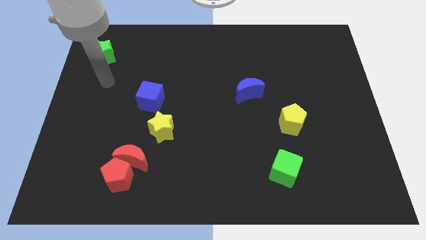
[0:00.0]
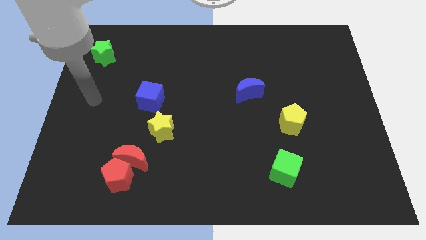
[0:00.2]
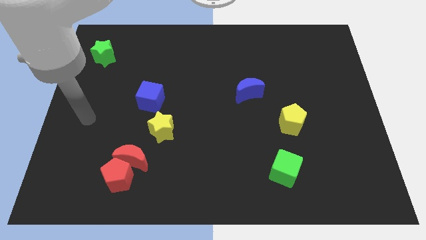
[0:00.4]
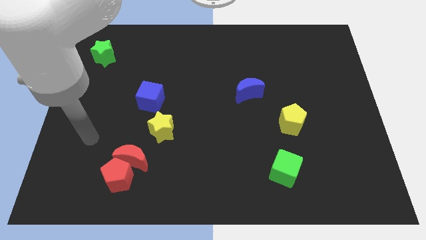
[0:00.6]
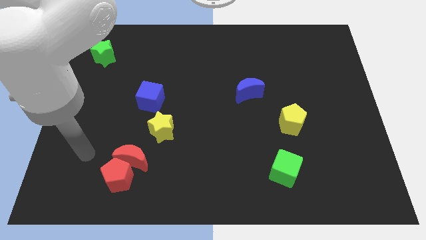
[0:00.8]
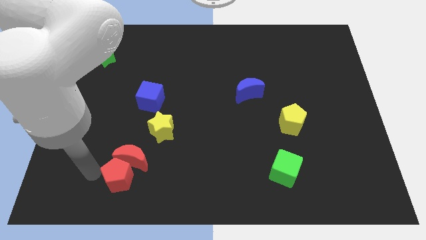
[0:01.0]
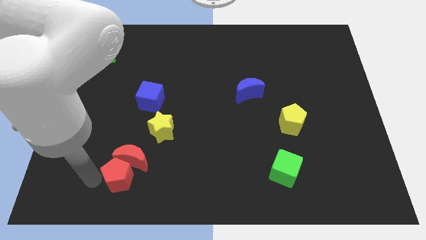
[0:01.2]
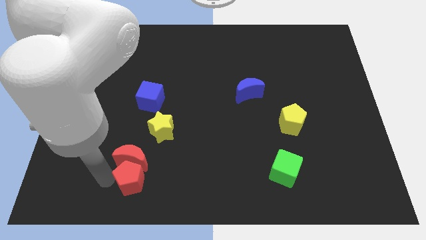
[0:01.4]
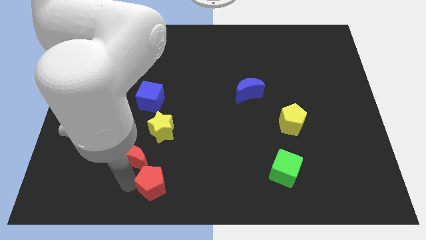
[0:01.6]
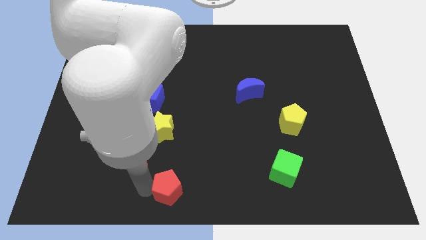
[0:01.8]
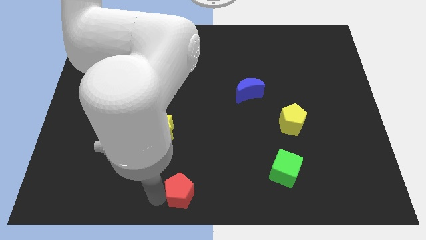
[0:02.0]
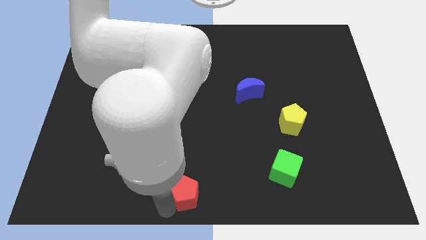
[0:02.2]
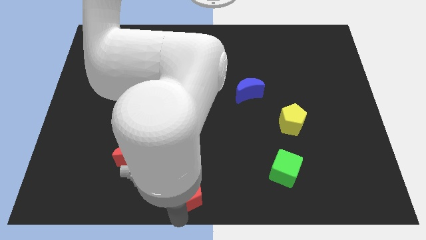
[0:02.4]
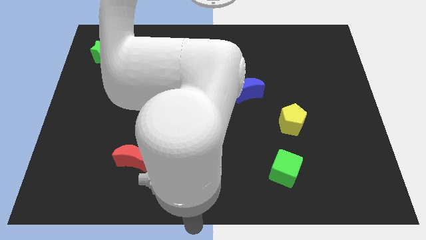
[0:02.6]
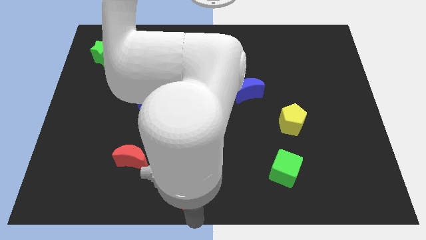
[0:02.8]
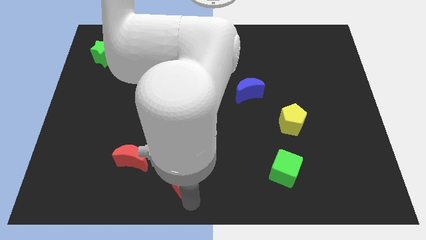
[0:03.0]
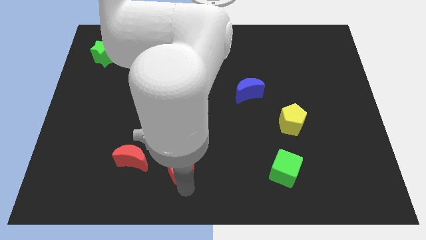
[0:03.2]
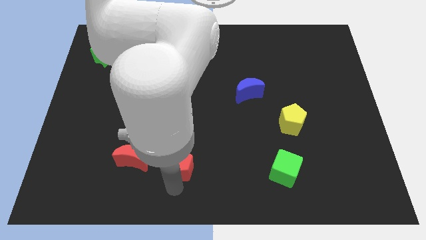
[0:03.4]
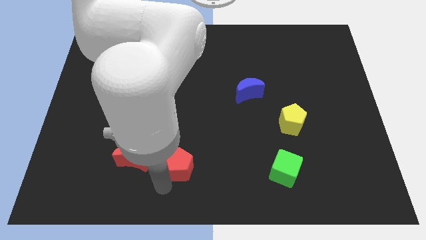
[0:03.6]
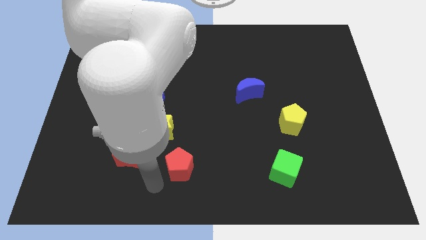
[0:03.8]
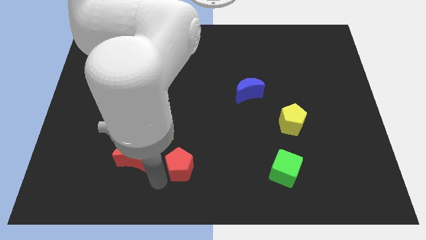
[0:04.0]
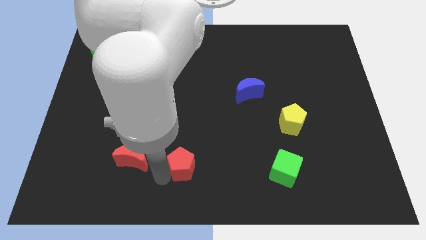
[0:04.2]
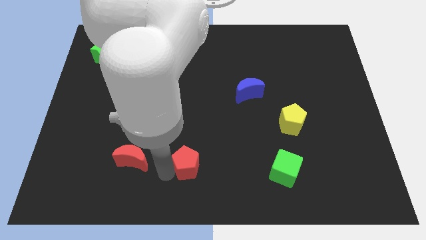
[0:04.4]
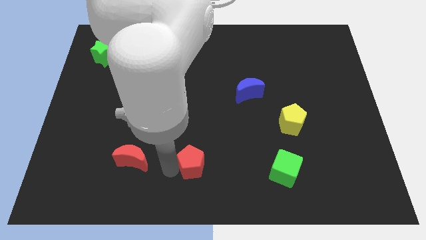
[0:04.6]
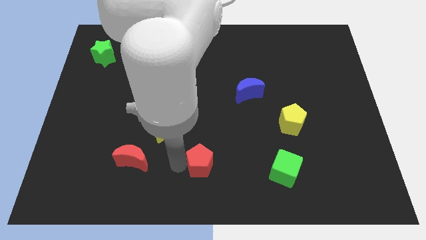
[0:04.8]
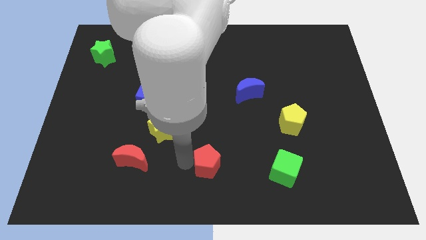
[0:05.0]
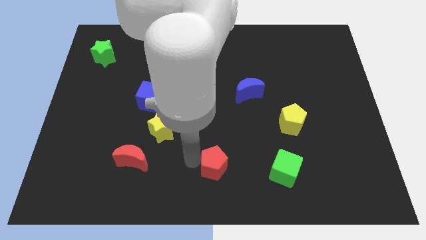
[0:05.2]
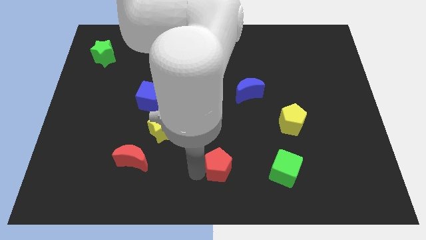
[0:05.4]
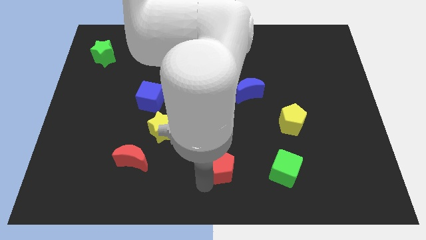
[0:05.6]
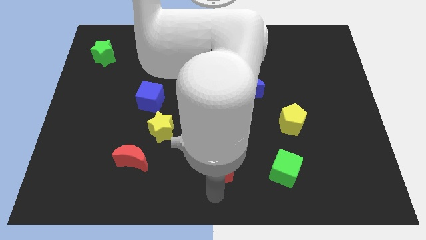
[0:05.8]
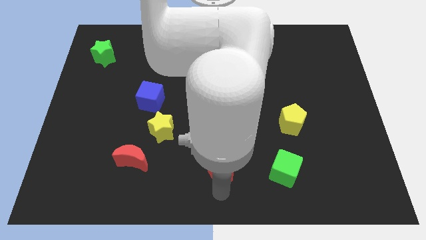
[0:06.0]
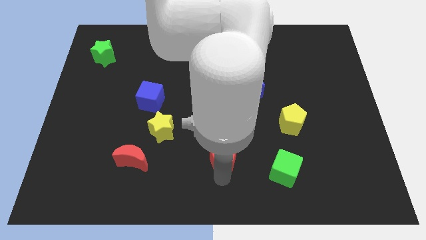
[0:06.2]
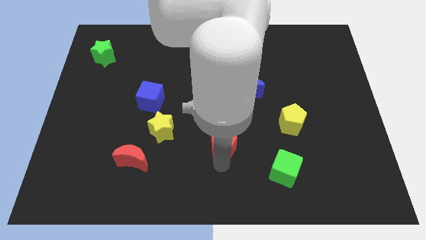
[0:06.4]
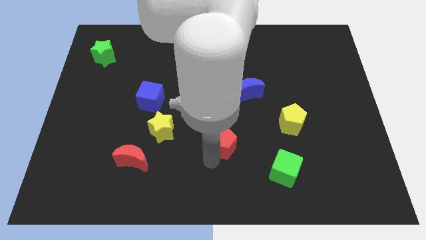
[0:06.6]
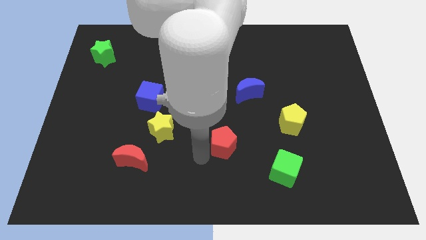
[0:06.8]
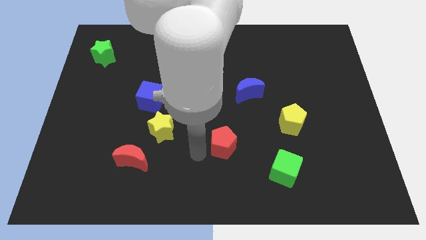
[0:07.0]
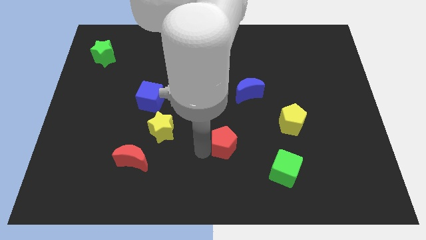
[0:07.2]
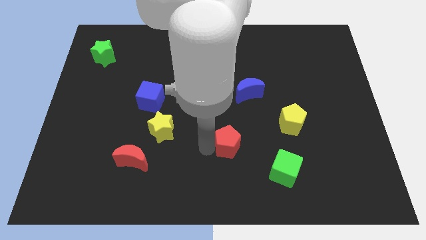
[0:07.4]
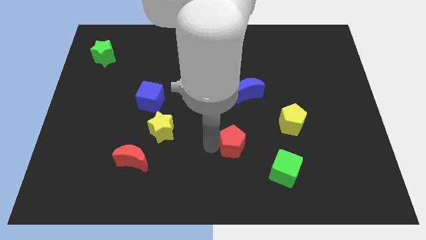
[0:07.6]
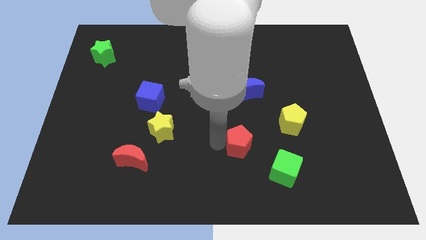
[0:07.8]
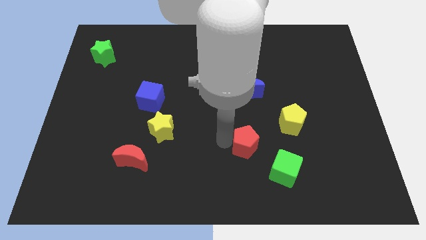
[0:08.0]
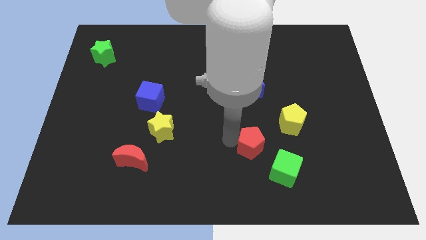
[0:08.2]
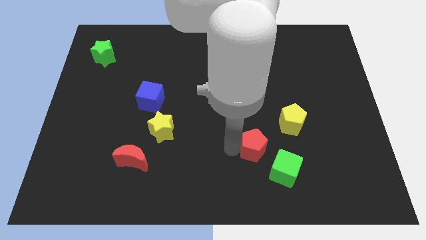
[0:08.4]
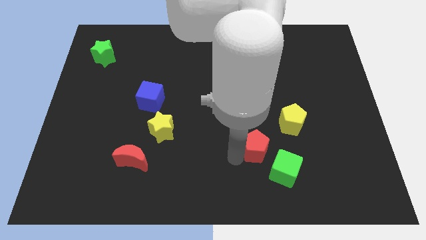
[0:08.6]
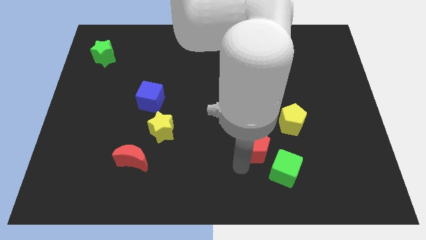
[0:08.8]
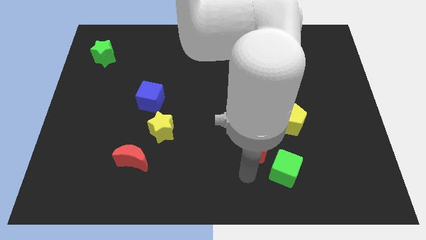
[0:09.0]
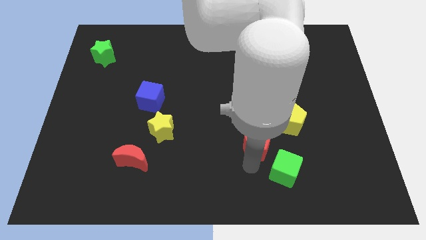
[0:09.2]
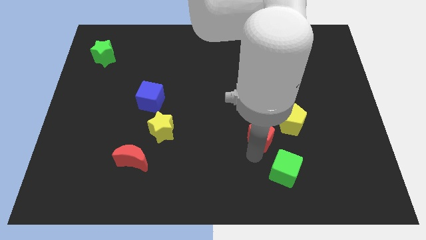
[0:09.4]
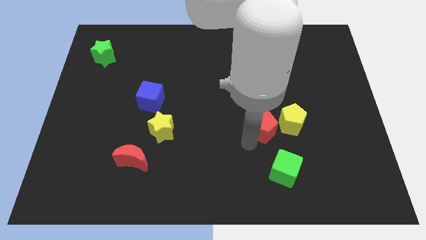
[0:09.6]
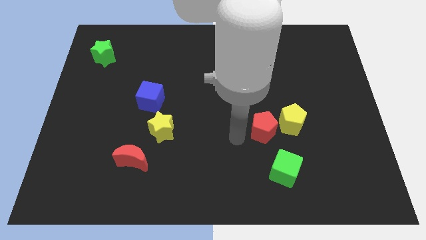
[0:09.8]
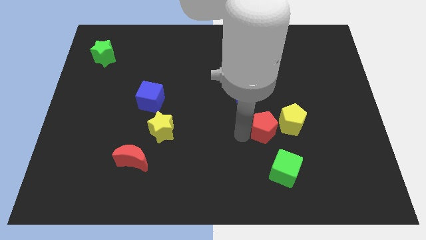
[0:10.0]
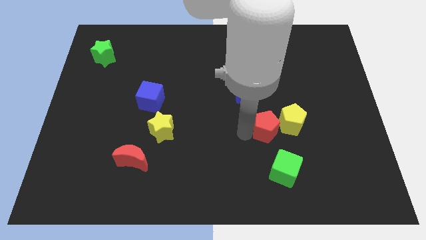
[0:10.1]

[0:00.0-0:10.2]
slide the red pentagon close to the yellow pentagon

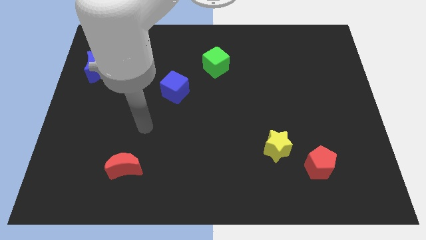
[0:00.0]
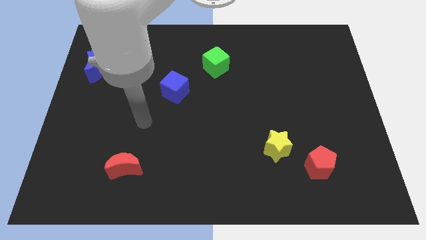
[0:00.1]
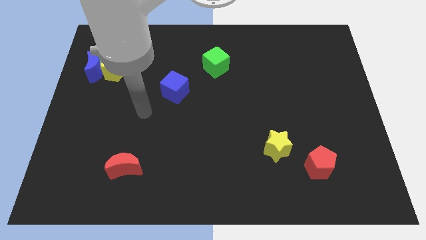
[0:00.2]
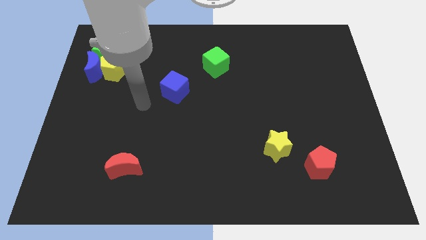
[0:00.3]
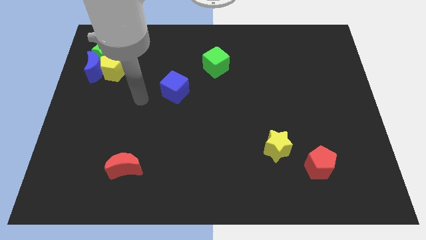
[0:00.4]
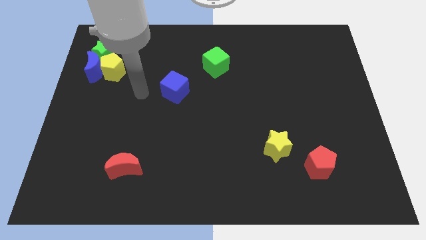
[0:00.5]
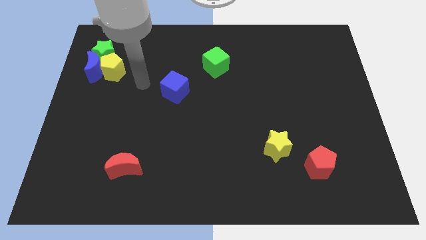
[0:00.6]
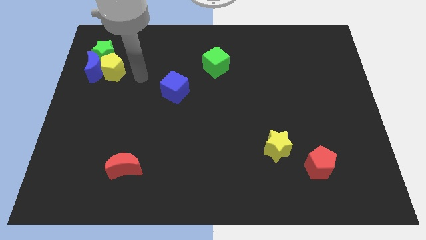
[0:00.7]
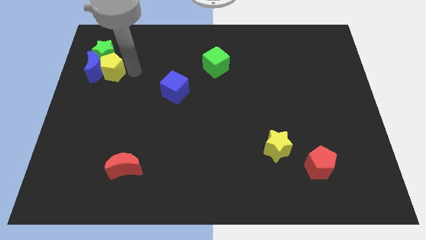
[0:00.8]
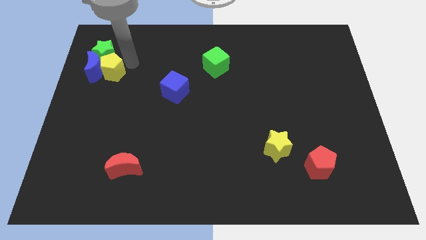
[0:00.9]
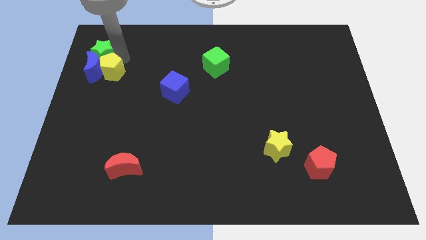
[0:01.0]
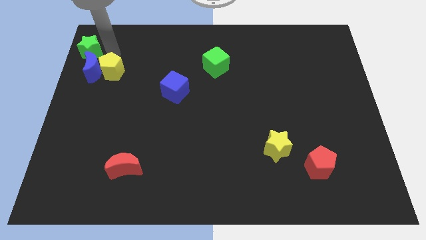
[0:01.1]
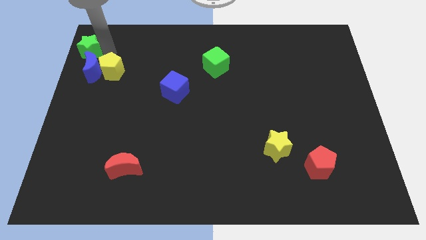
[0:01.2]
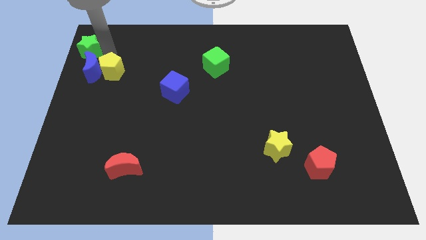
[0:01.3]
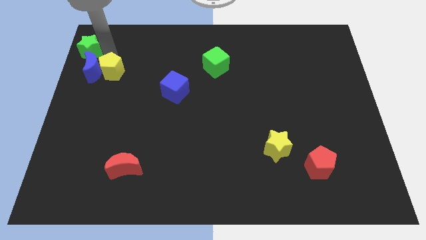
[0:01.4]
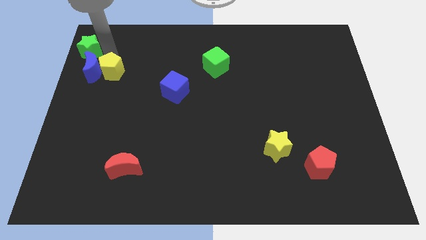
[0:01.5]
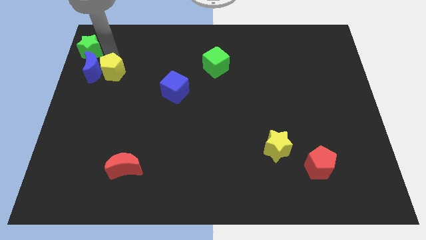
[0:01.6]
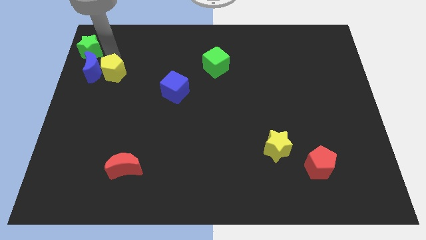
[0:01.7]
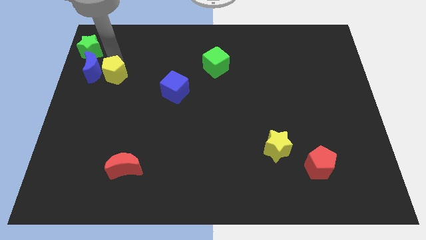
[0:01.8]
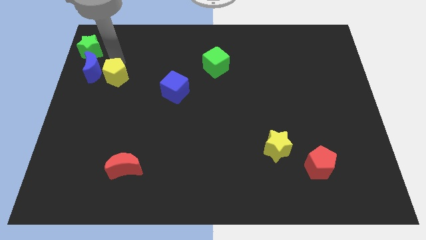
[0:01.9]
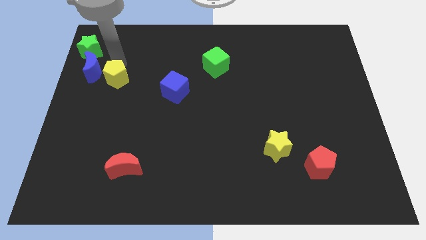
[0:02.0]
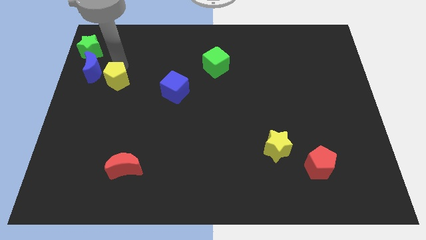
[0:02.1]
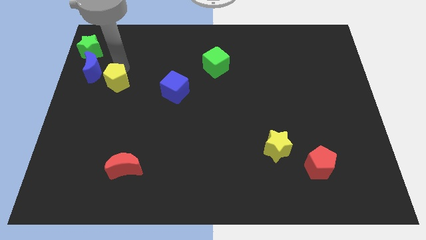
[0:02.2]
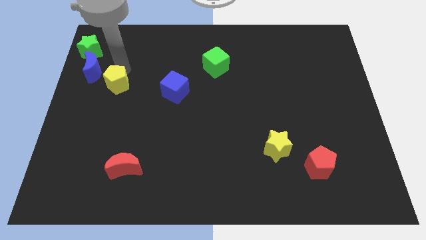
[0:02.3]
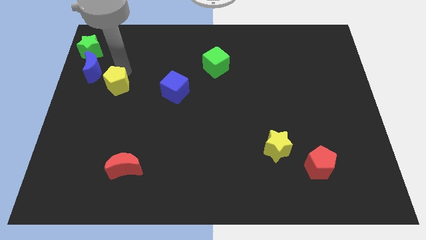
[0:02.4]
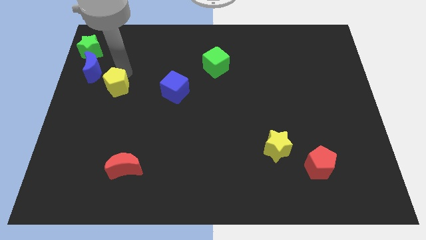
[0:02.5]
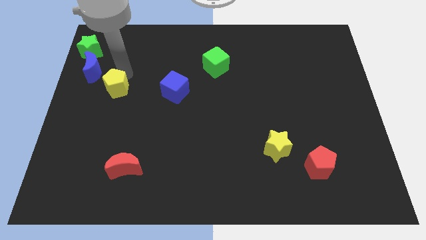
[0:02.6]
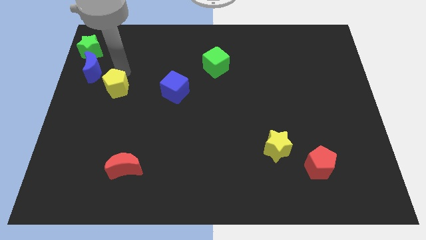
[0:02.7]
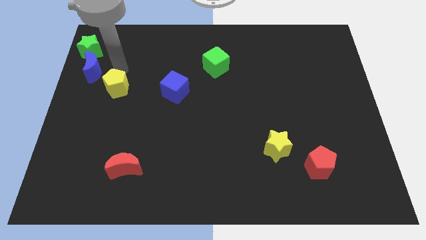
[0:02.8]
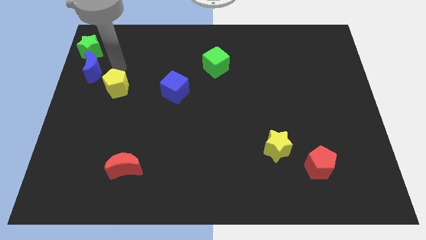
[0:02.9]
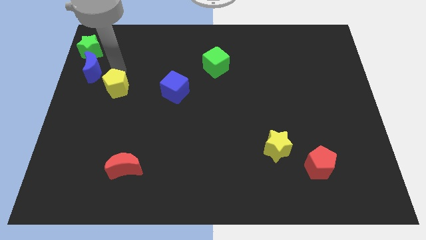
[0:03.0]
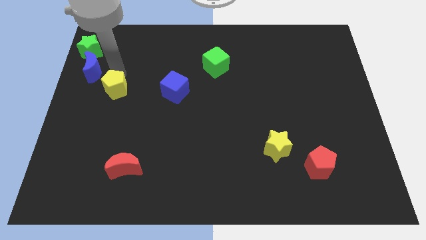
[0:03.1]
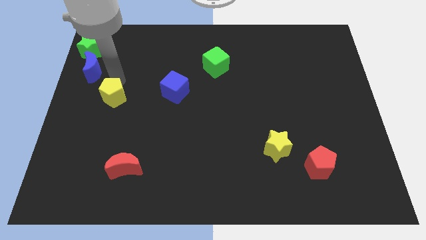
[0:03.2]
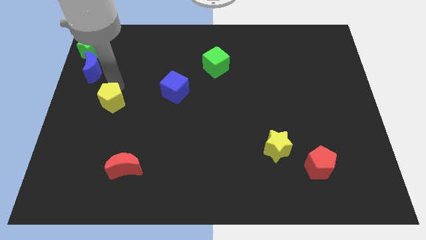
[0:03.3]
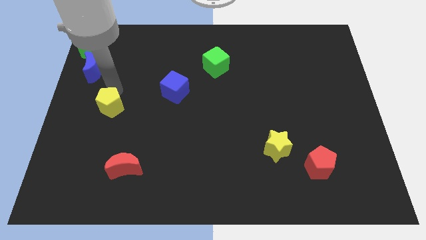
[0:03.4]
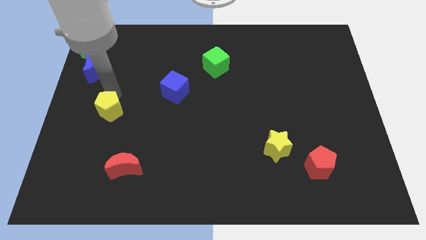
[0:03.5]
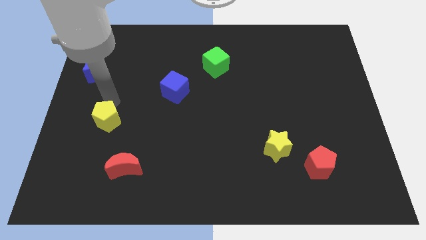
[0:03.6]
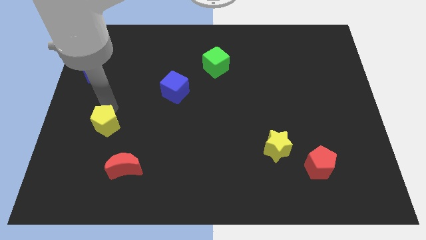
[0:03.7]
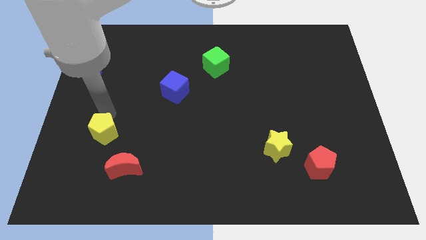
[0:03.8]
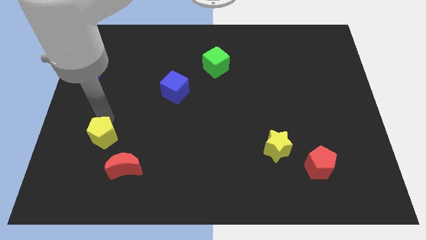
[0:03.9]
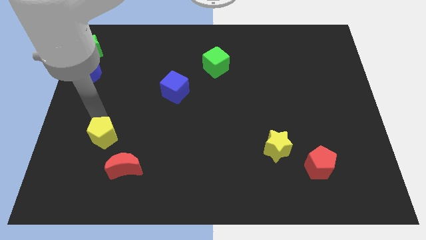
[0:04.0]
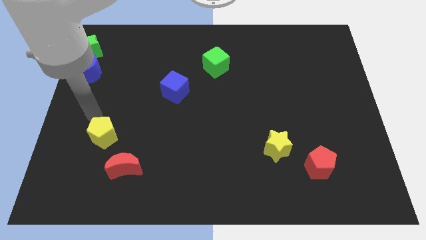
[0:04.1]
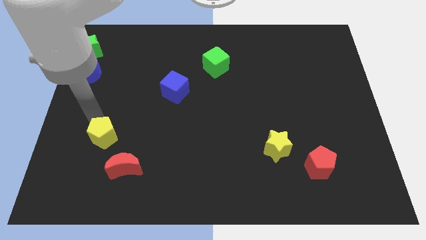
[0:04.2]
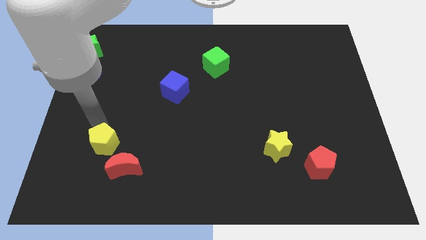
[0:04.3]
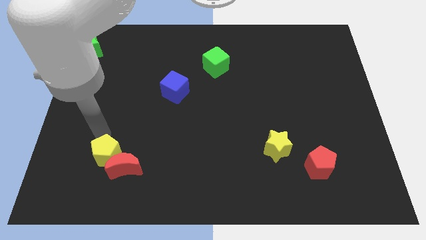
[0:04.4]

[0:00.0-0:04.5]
push the yellow pentagon close to the red moon
